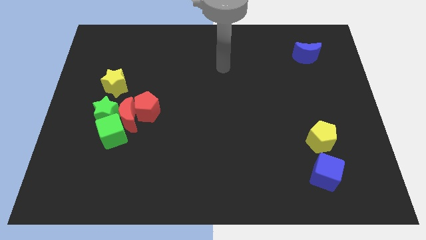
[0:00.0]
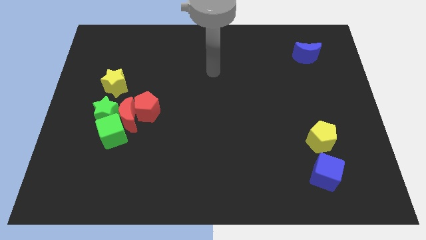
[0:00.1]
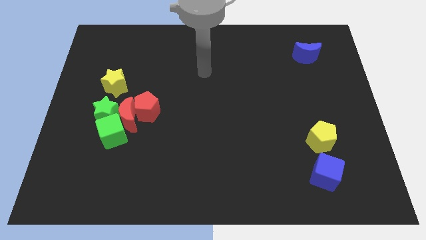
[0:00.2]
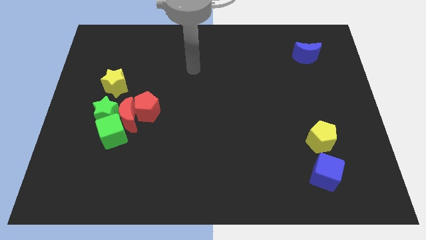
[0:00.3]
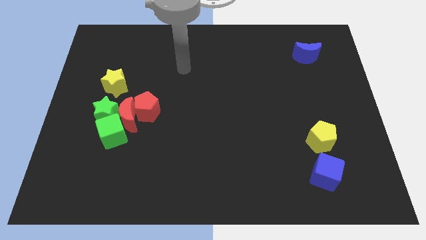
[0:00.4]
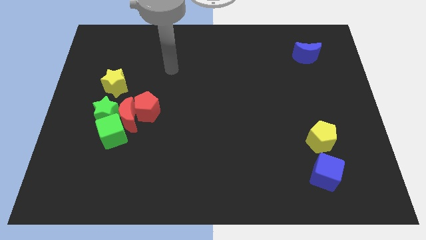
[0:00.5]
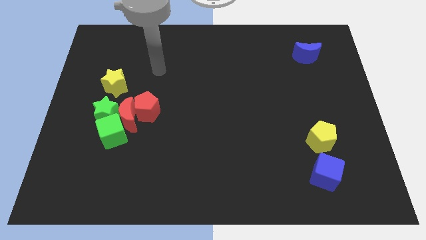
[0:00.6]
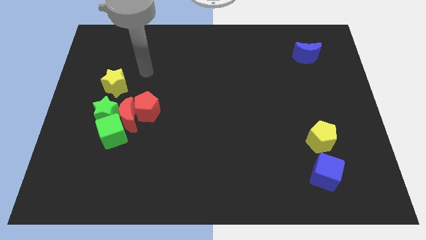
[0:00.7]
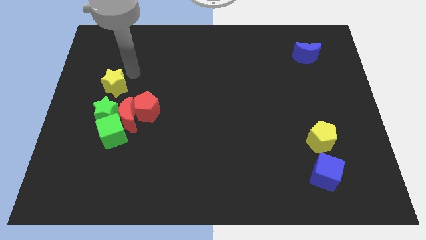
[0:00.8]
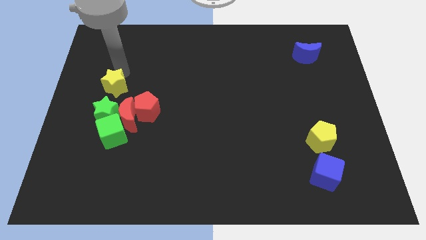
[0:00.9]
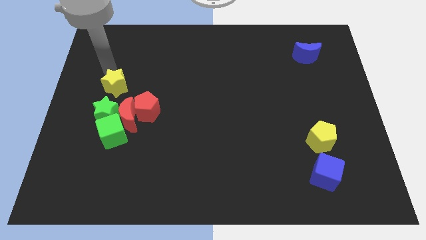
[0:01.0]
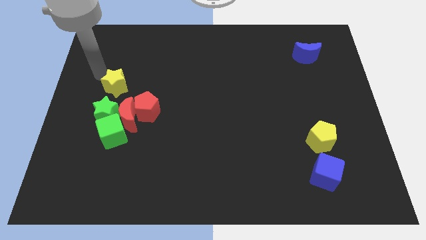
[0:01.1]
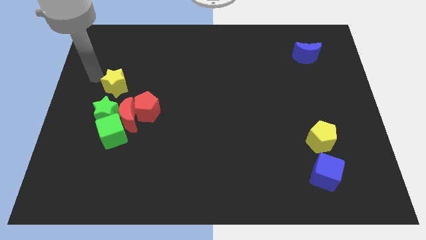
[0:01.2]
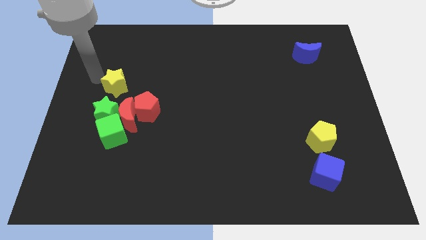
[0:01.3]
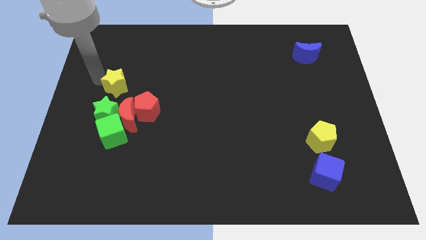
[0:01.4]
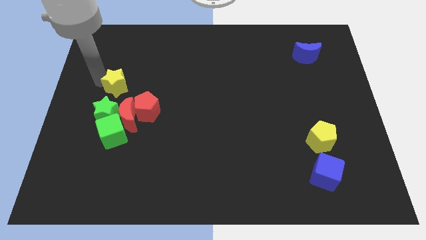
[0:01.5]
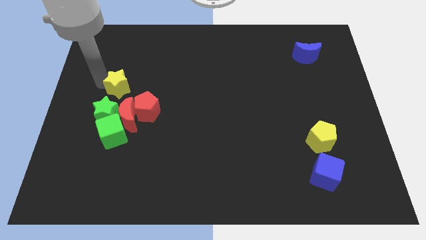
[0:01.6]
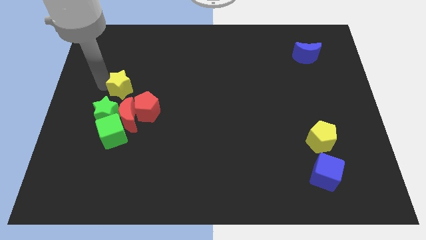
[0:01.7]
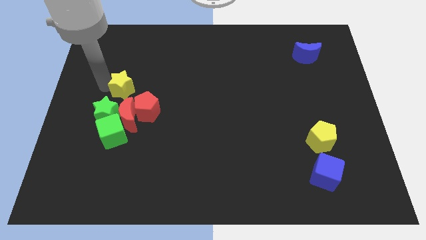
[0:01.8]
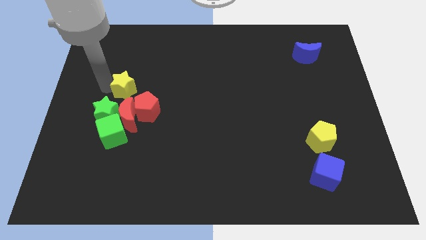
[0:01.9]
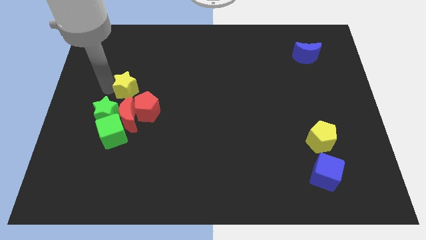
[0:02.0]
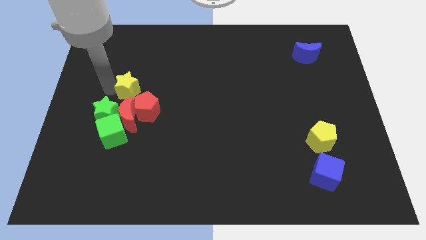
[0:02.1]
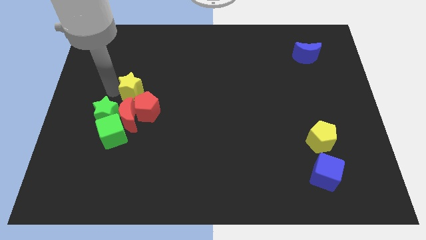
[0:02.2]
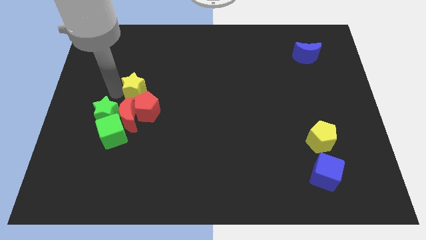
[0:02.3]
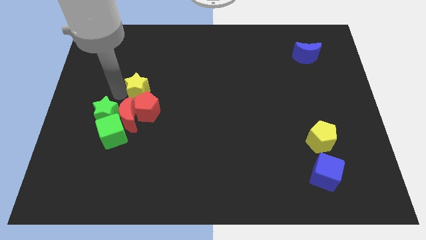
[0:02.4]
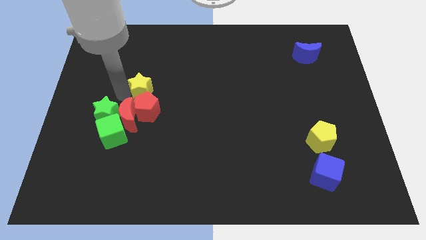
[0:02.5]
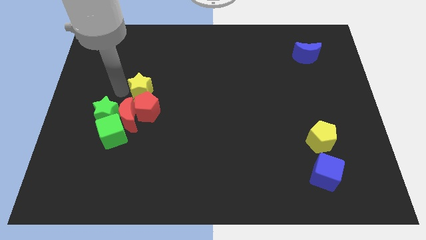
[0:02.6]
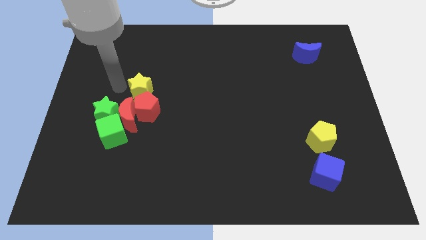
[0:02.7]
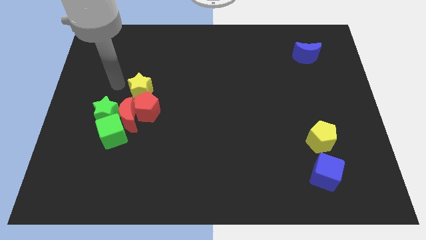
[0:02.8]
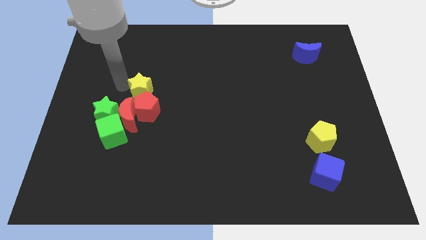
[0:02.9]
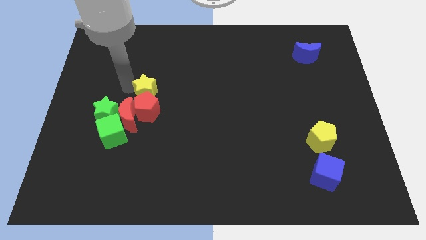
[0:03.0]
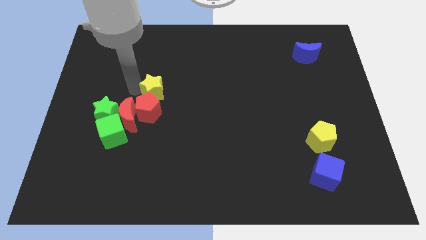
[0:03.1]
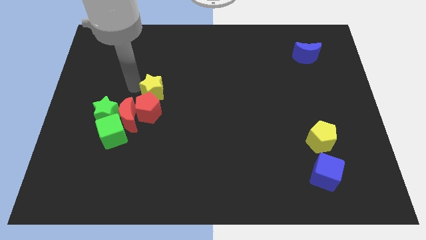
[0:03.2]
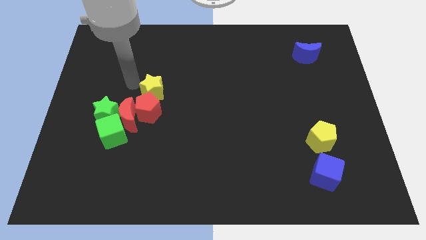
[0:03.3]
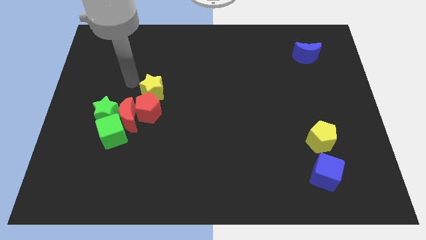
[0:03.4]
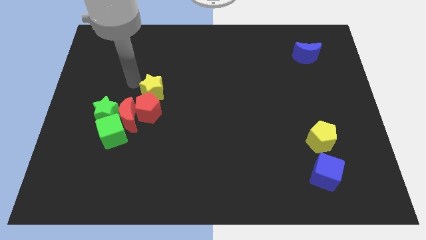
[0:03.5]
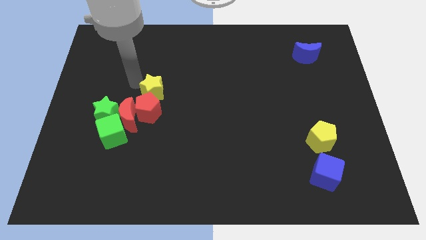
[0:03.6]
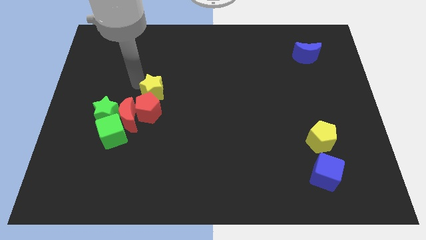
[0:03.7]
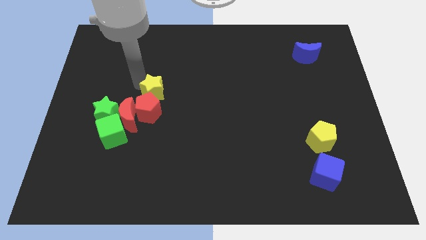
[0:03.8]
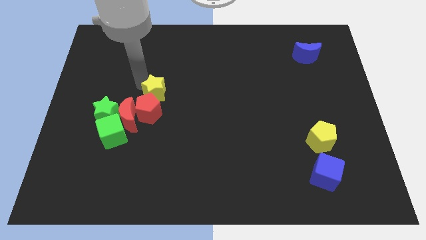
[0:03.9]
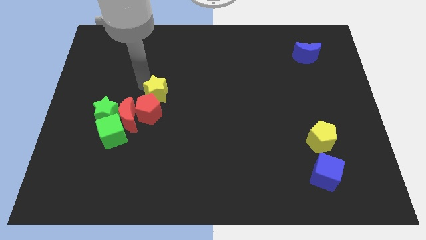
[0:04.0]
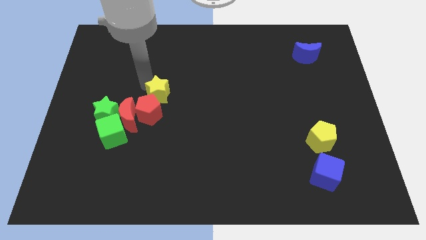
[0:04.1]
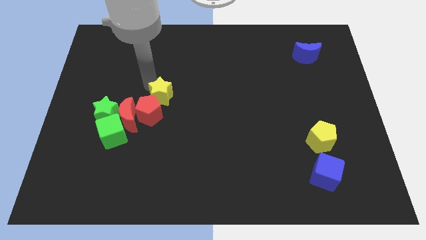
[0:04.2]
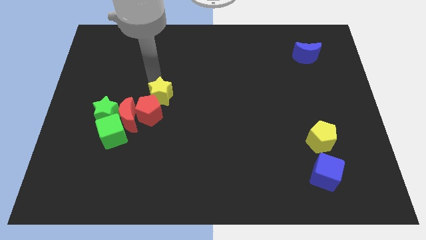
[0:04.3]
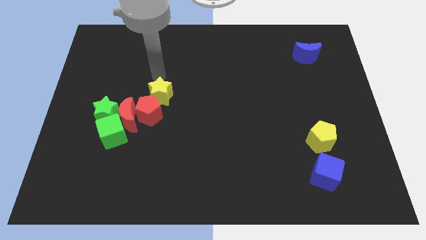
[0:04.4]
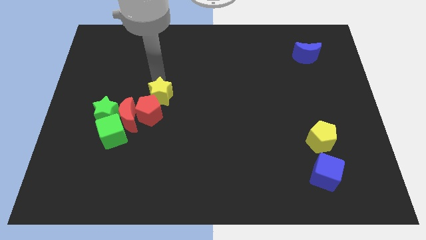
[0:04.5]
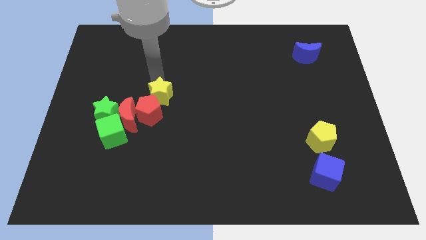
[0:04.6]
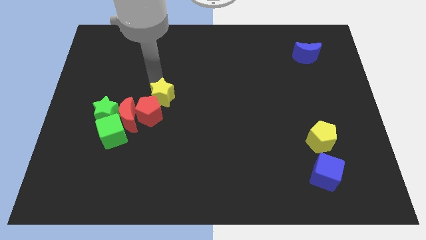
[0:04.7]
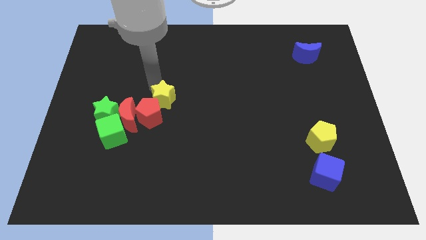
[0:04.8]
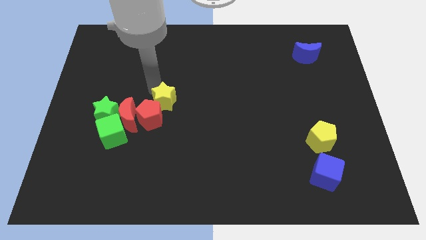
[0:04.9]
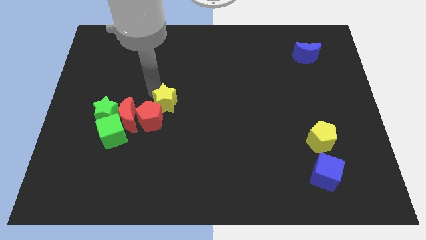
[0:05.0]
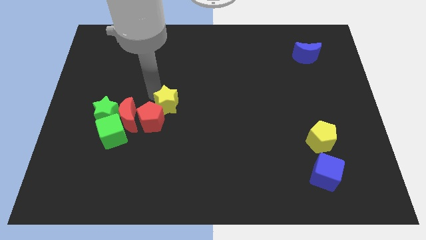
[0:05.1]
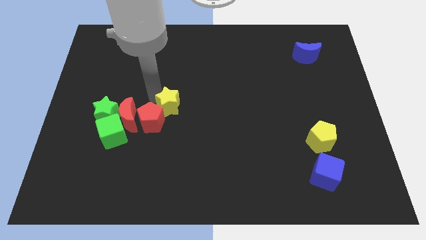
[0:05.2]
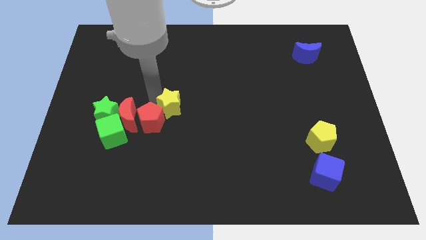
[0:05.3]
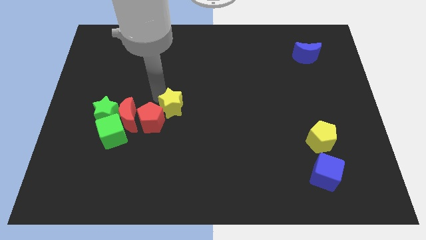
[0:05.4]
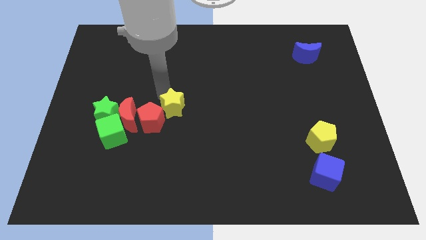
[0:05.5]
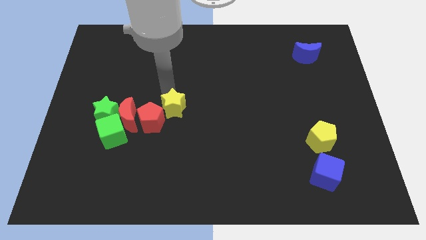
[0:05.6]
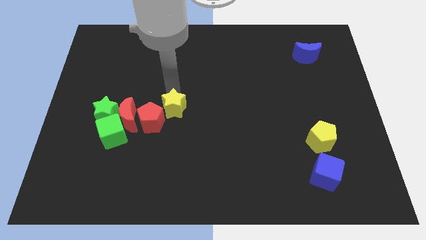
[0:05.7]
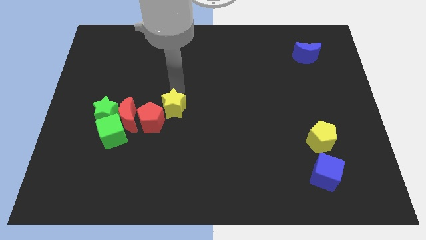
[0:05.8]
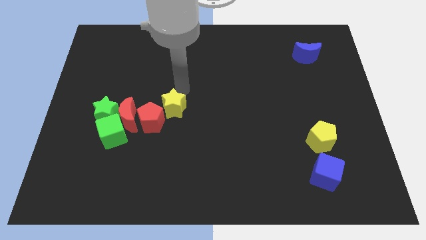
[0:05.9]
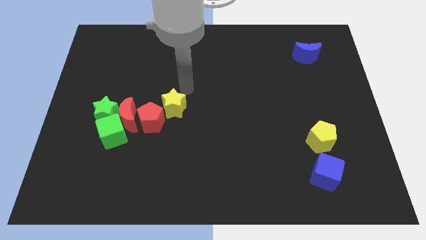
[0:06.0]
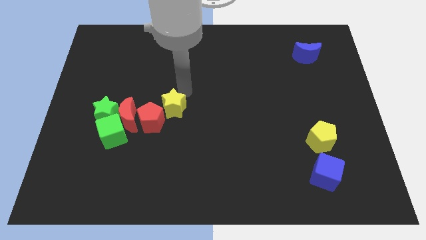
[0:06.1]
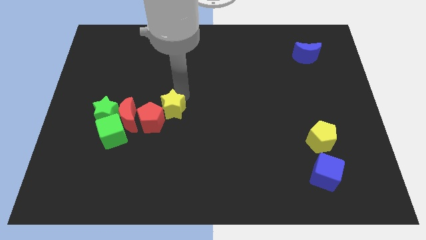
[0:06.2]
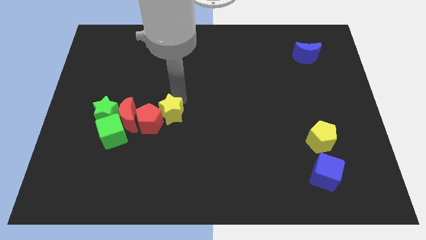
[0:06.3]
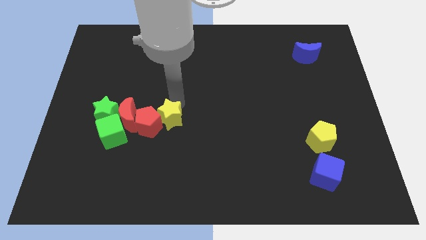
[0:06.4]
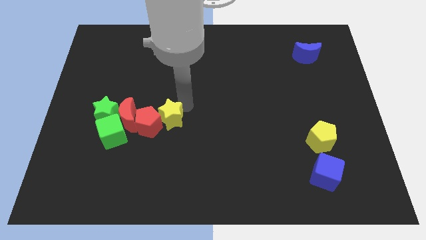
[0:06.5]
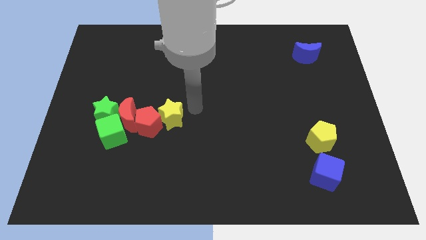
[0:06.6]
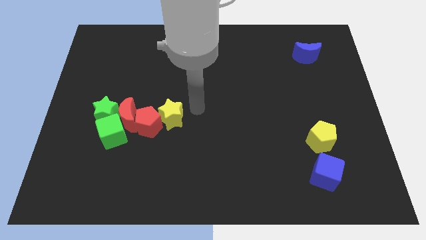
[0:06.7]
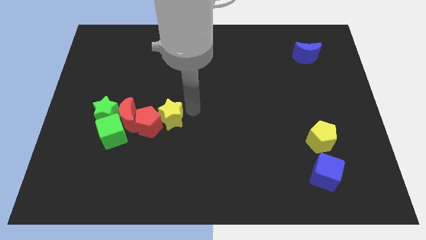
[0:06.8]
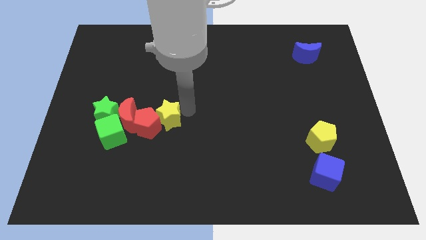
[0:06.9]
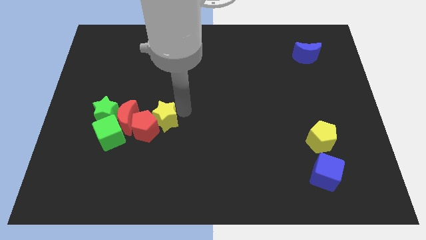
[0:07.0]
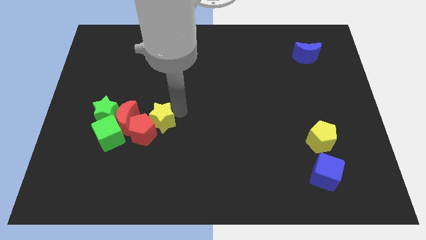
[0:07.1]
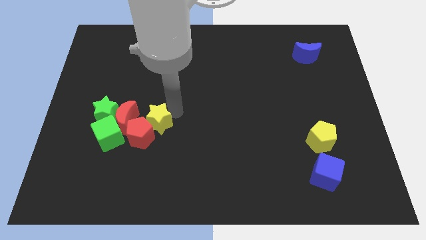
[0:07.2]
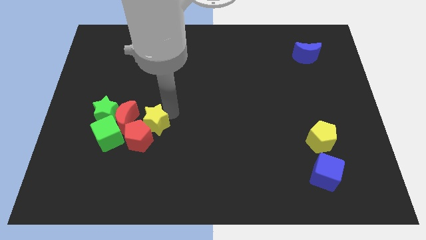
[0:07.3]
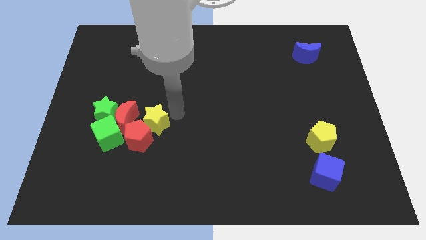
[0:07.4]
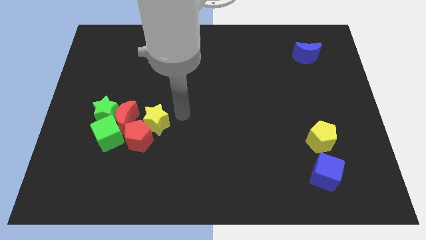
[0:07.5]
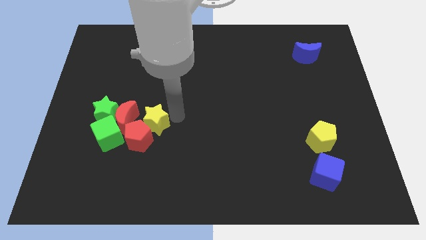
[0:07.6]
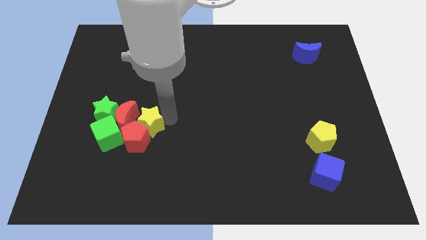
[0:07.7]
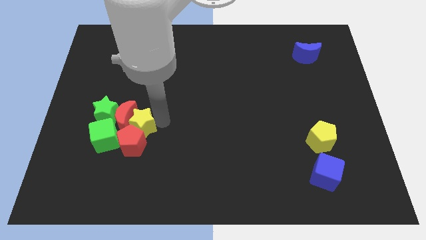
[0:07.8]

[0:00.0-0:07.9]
slide the yellow star to the bottom right of the green star
